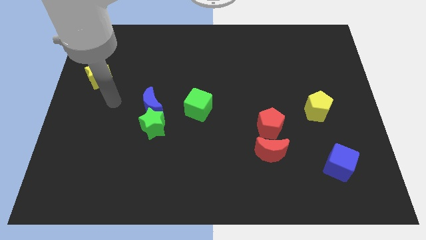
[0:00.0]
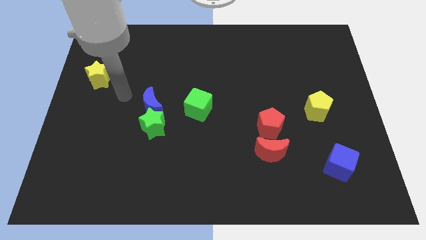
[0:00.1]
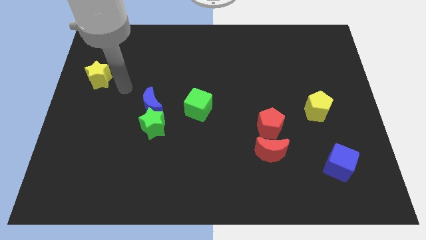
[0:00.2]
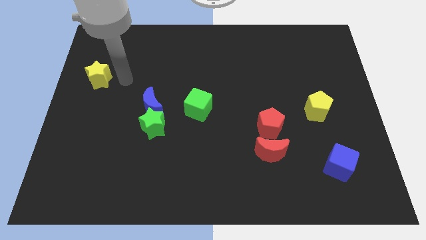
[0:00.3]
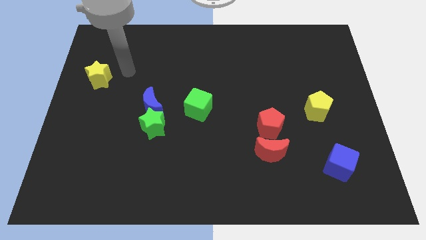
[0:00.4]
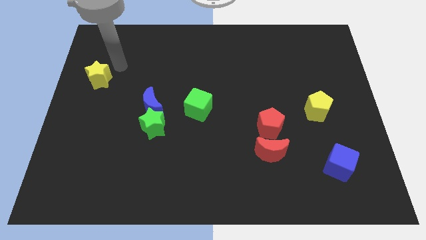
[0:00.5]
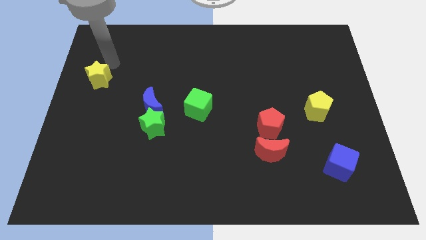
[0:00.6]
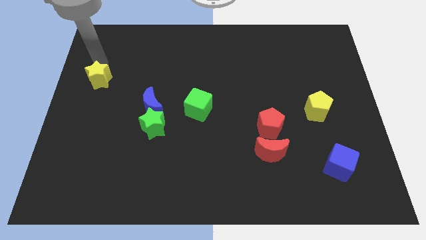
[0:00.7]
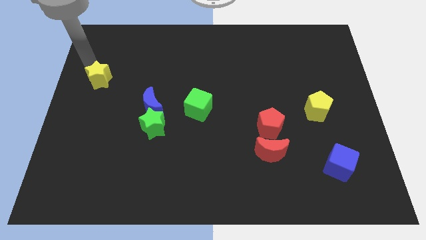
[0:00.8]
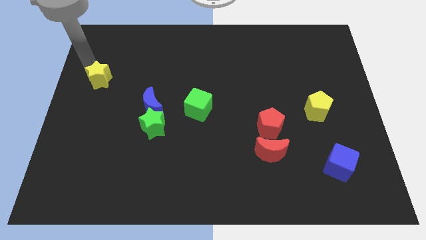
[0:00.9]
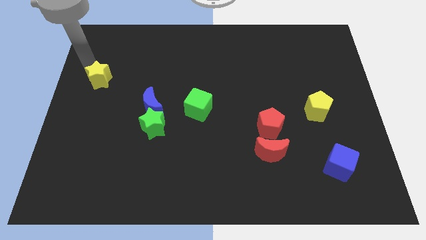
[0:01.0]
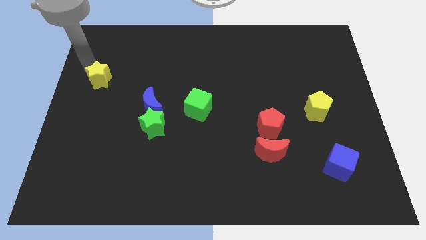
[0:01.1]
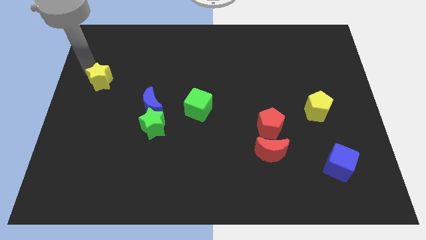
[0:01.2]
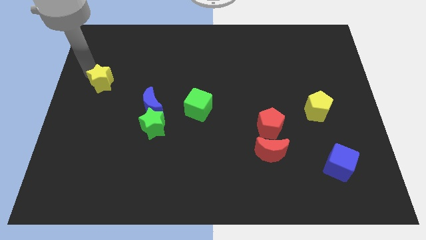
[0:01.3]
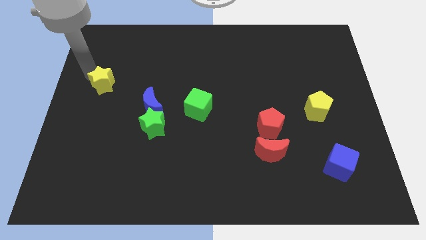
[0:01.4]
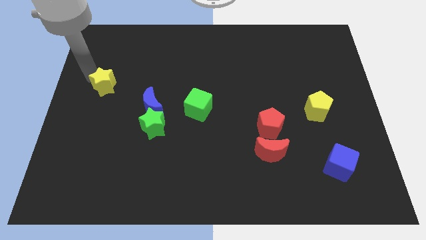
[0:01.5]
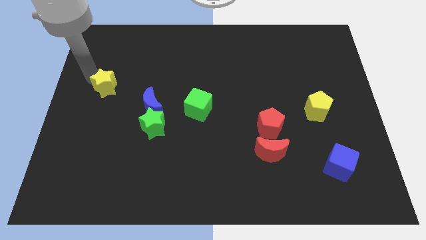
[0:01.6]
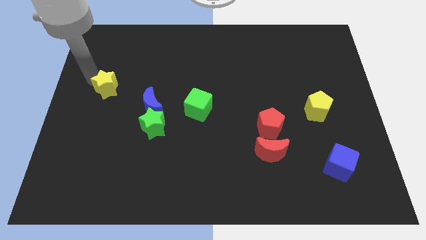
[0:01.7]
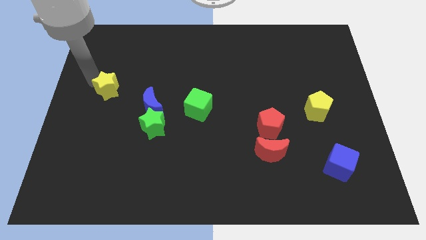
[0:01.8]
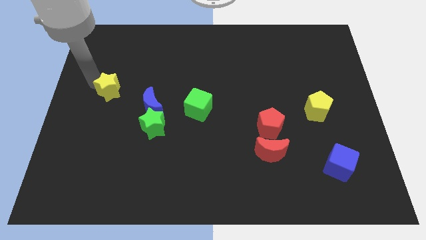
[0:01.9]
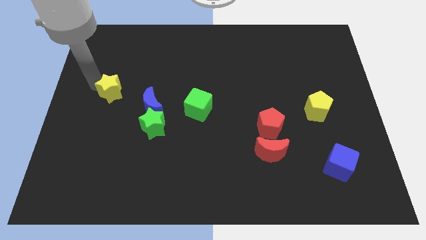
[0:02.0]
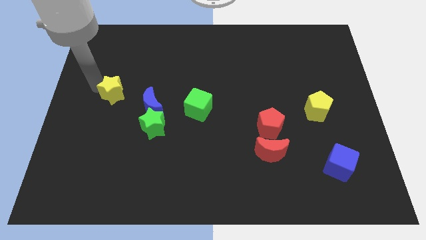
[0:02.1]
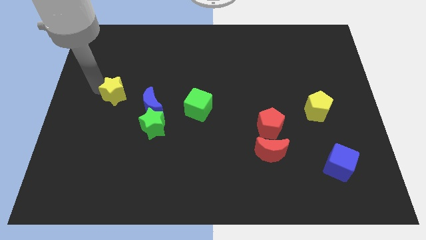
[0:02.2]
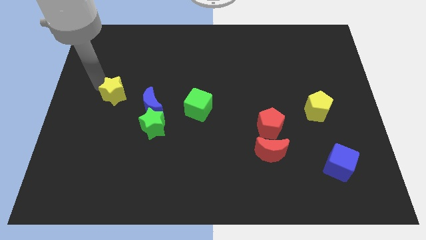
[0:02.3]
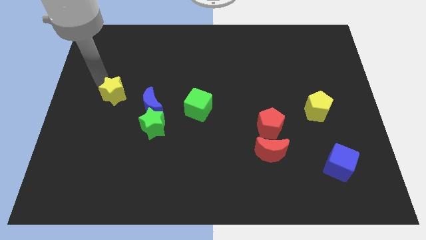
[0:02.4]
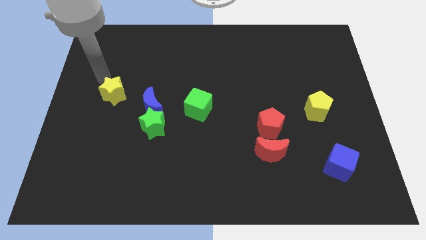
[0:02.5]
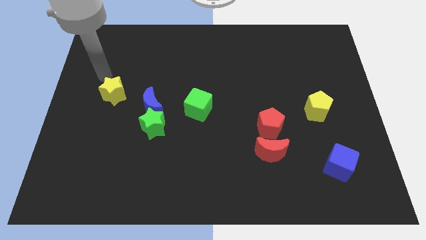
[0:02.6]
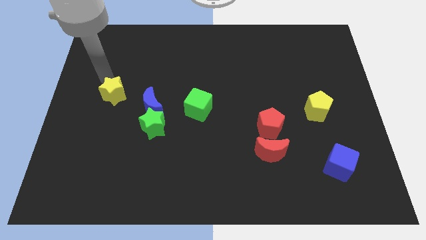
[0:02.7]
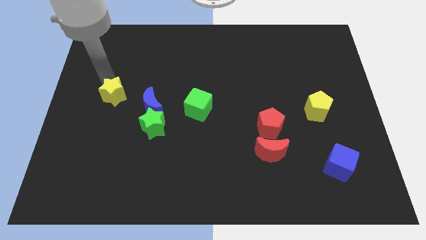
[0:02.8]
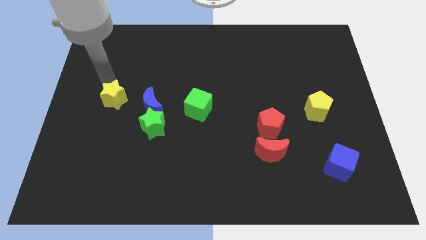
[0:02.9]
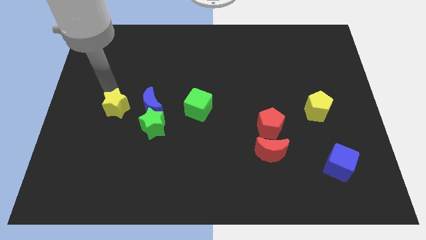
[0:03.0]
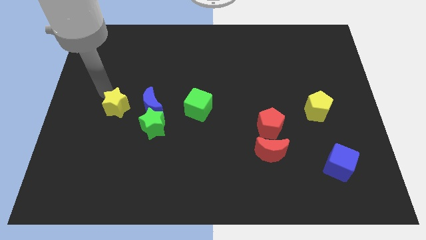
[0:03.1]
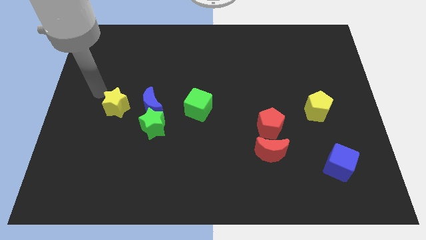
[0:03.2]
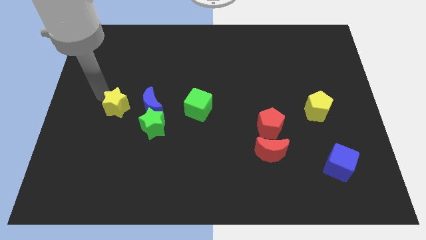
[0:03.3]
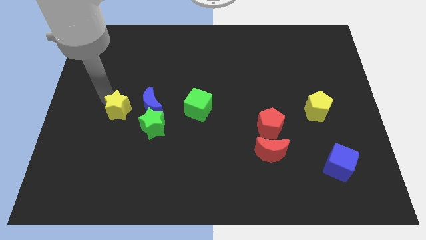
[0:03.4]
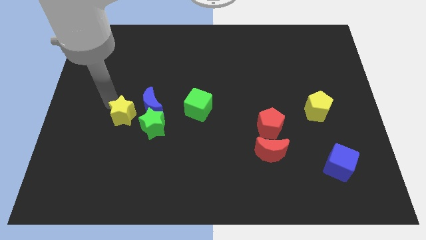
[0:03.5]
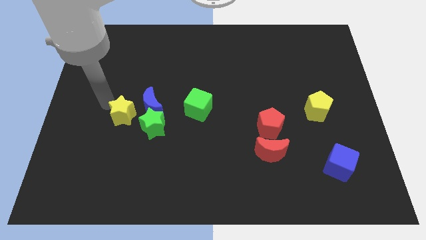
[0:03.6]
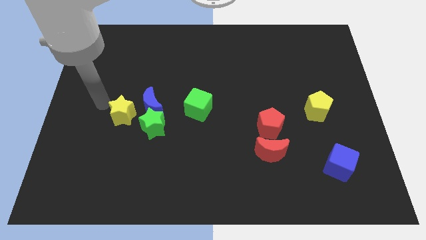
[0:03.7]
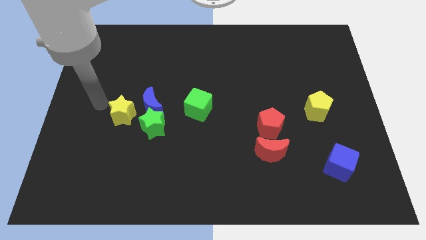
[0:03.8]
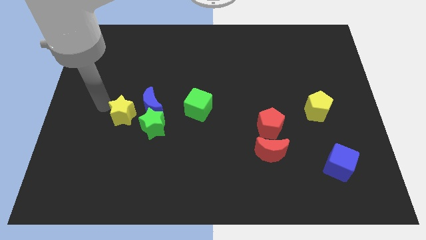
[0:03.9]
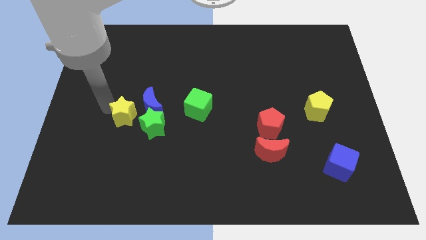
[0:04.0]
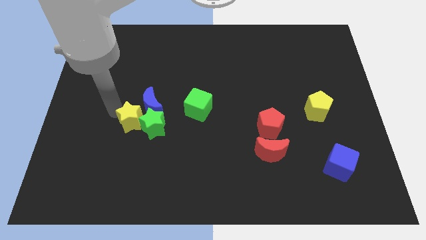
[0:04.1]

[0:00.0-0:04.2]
push the yellow star close to the green star

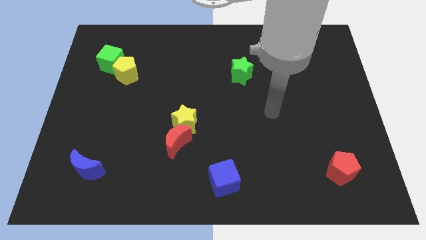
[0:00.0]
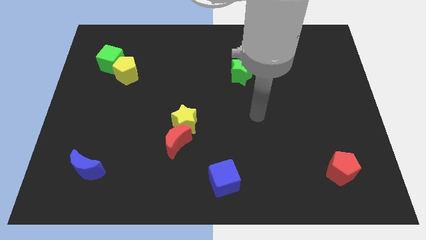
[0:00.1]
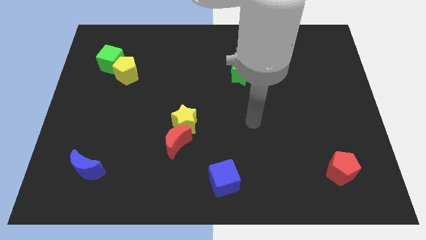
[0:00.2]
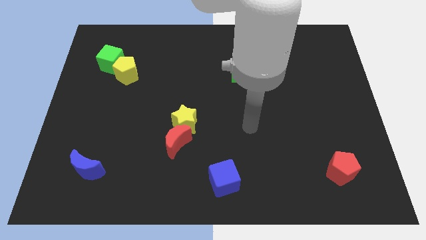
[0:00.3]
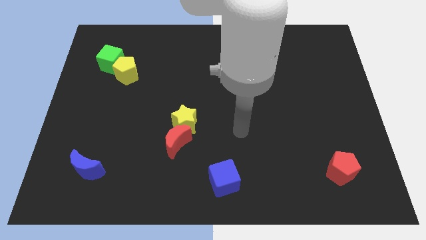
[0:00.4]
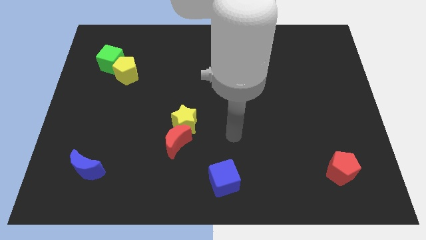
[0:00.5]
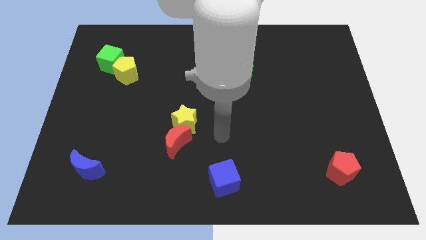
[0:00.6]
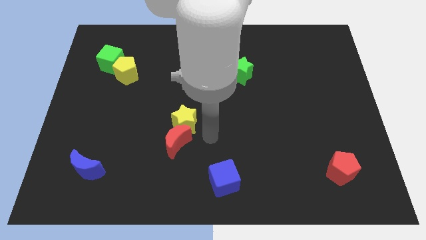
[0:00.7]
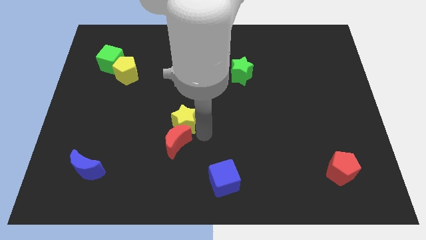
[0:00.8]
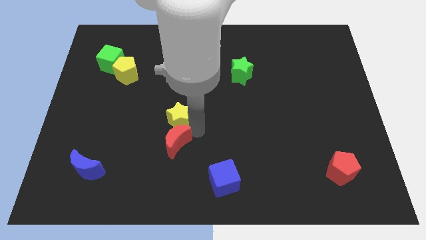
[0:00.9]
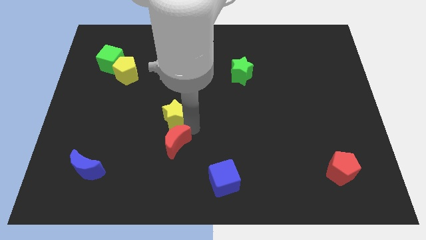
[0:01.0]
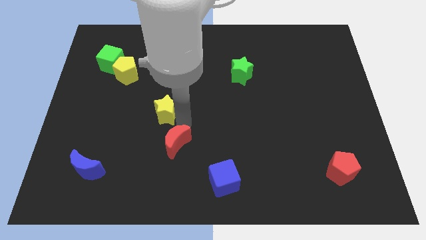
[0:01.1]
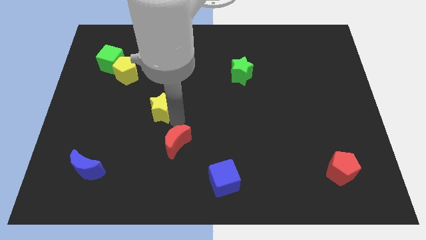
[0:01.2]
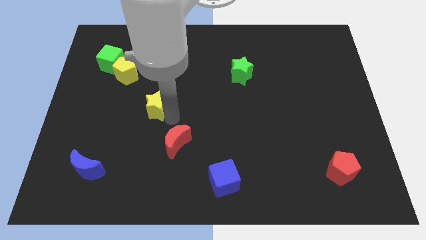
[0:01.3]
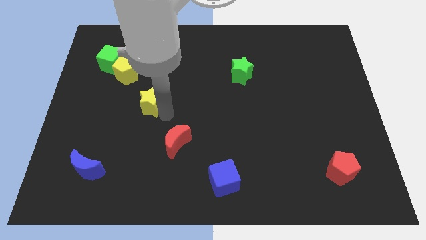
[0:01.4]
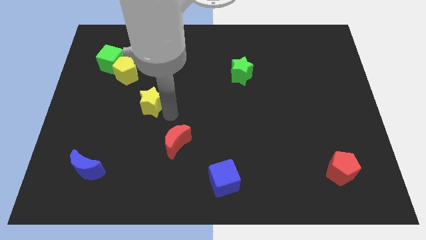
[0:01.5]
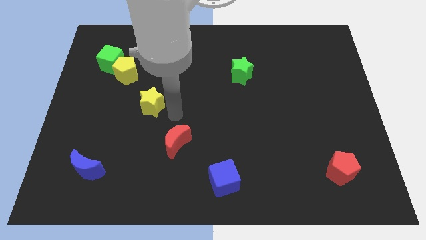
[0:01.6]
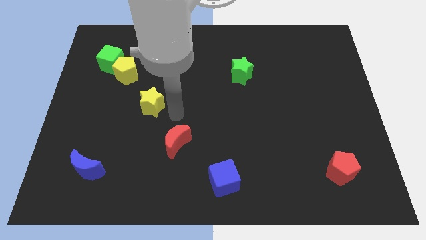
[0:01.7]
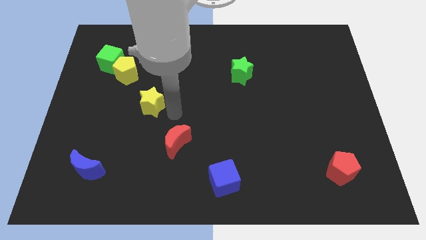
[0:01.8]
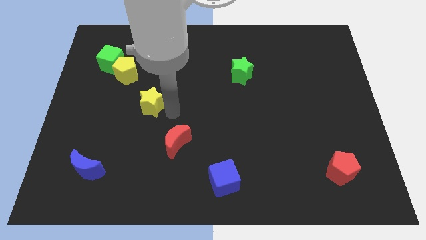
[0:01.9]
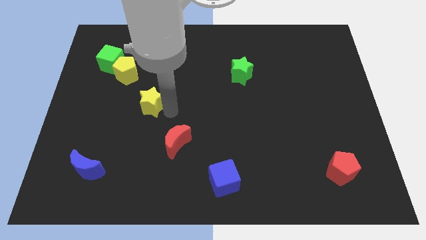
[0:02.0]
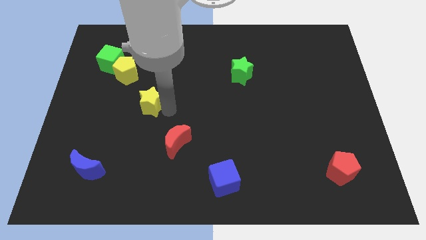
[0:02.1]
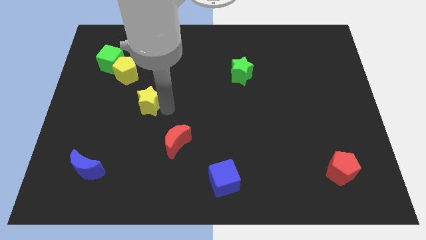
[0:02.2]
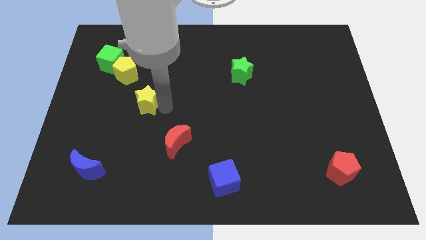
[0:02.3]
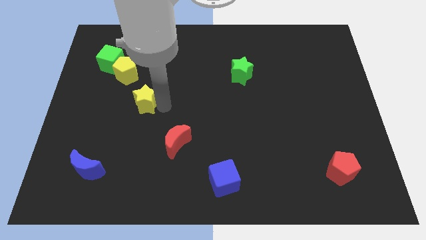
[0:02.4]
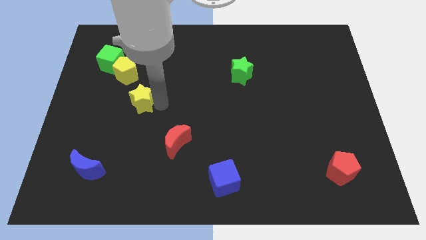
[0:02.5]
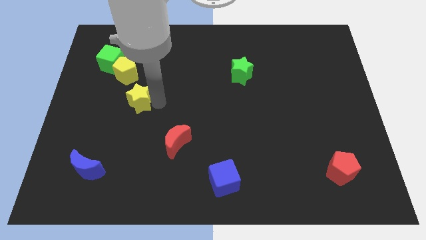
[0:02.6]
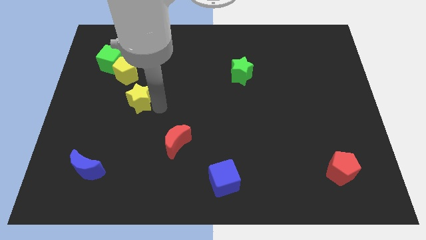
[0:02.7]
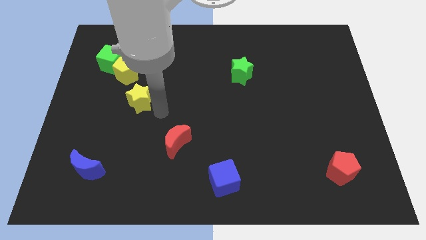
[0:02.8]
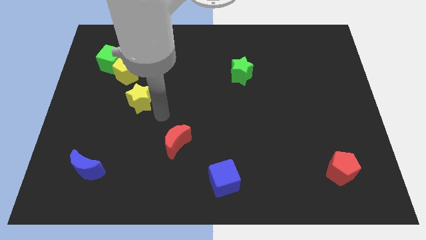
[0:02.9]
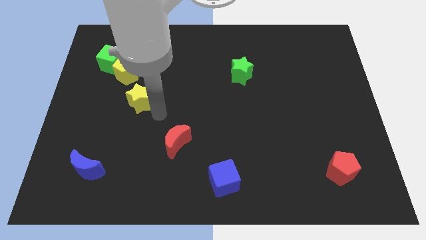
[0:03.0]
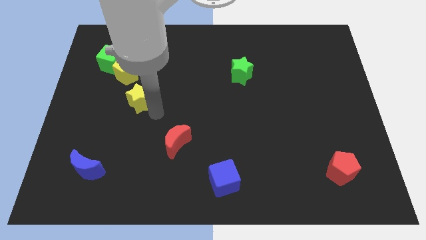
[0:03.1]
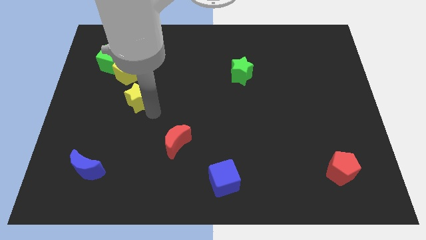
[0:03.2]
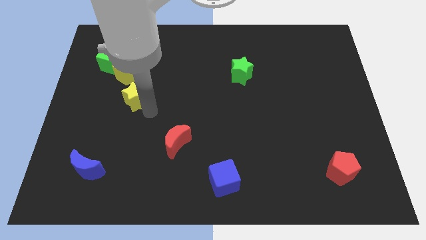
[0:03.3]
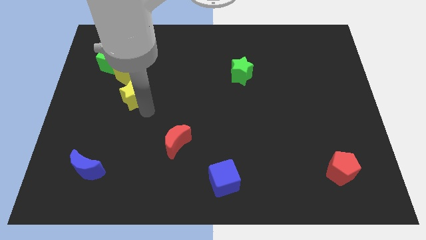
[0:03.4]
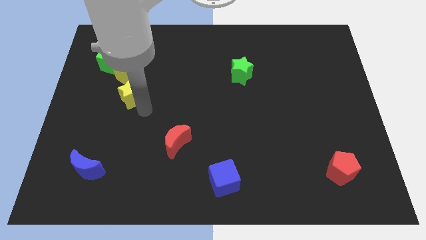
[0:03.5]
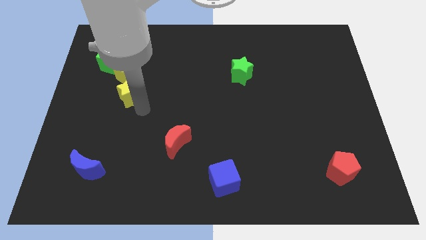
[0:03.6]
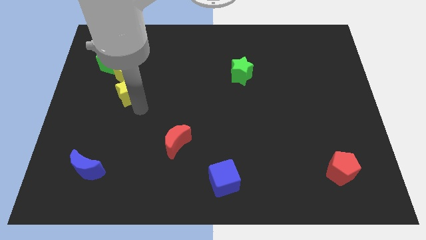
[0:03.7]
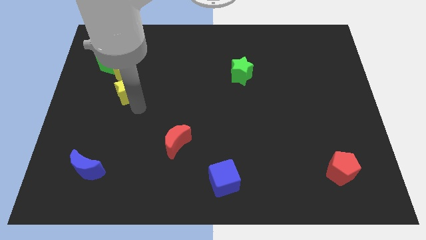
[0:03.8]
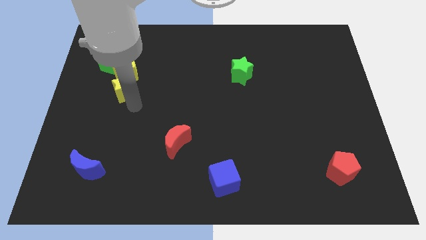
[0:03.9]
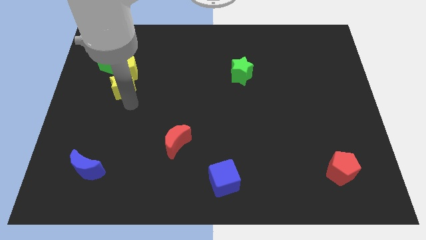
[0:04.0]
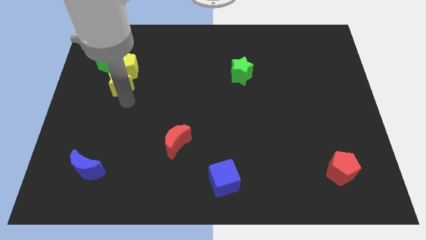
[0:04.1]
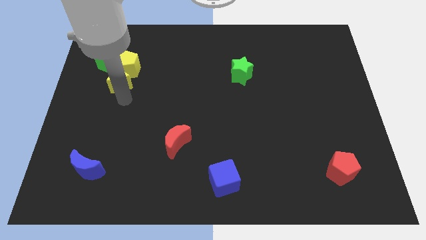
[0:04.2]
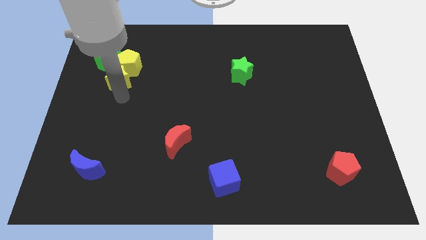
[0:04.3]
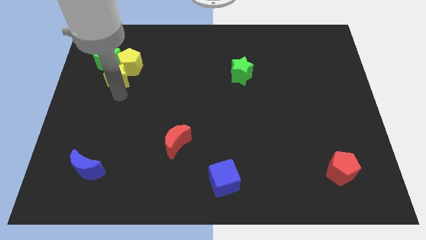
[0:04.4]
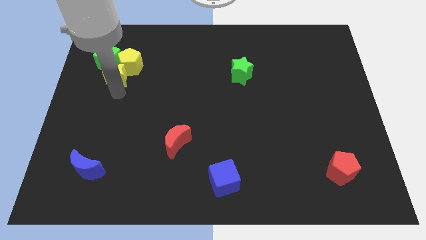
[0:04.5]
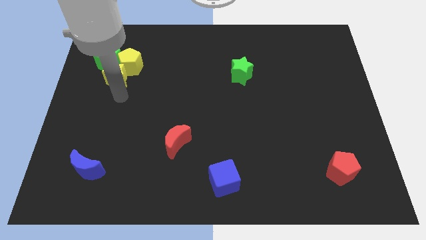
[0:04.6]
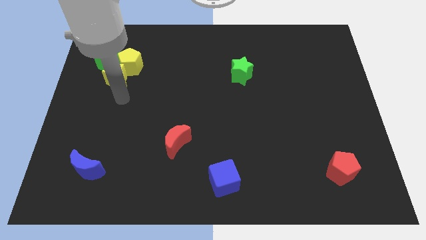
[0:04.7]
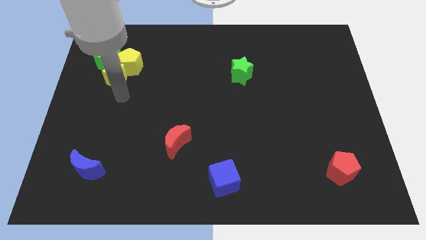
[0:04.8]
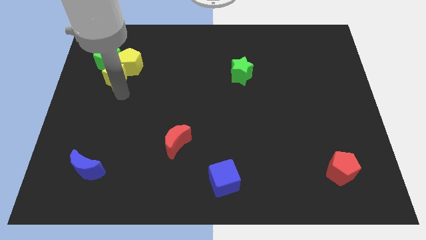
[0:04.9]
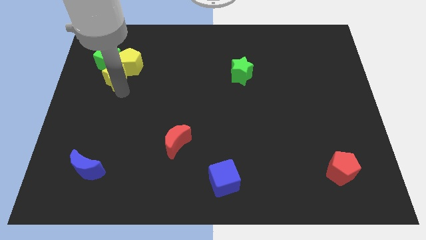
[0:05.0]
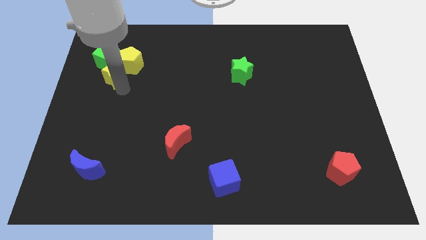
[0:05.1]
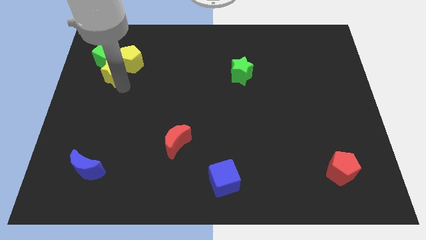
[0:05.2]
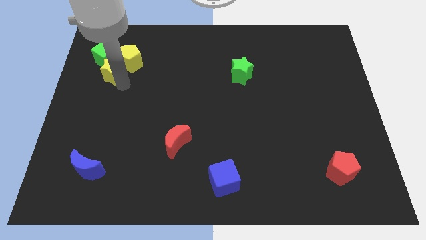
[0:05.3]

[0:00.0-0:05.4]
push the yellow star close to the green cube
